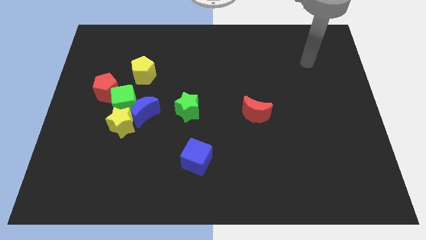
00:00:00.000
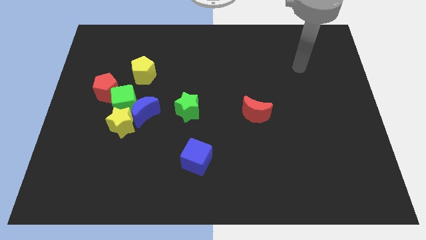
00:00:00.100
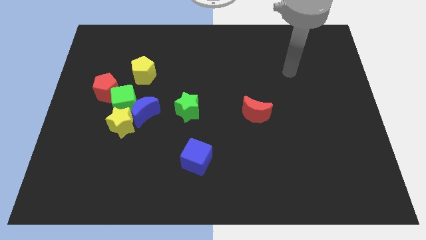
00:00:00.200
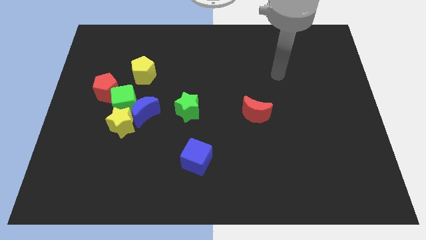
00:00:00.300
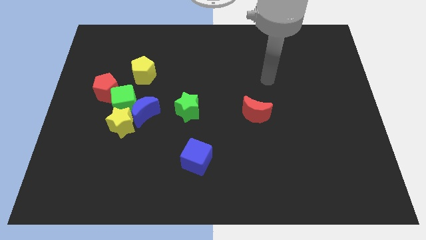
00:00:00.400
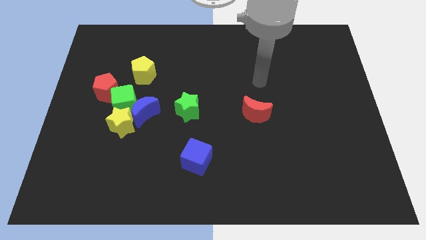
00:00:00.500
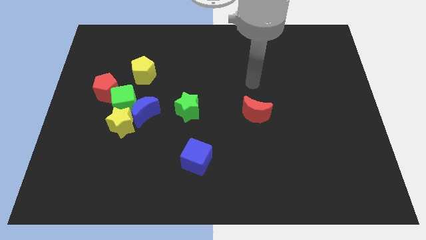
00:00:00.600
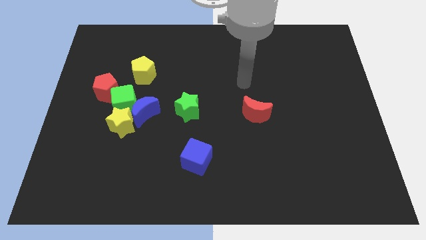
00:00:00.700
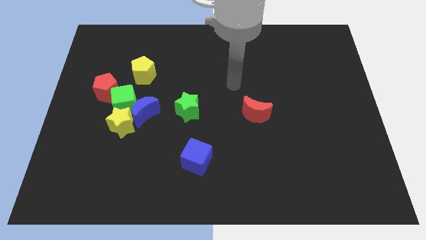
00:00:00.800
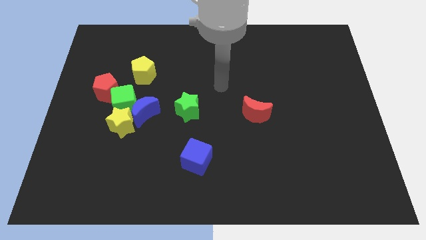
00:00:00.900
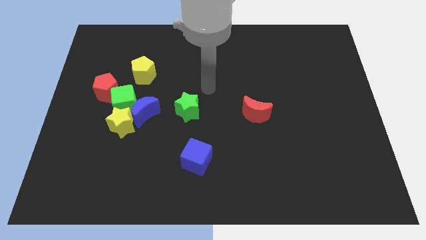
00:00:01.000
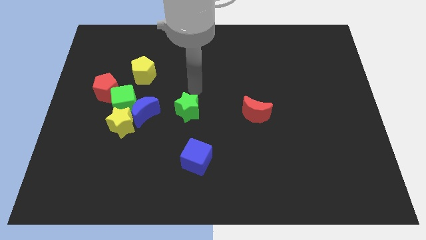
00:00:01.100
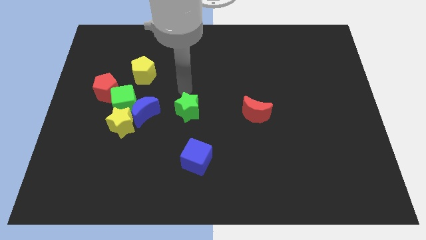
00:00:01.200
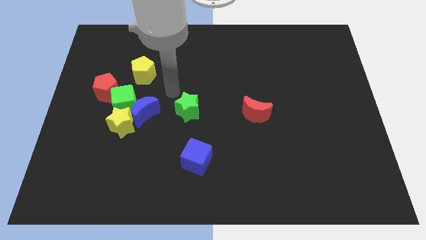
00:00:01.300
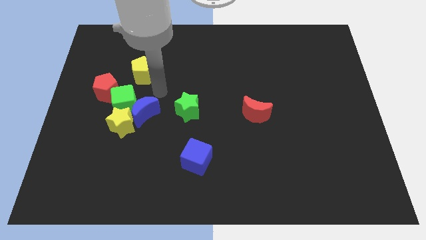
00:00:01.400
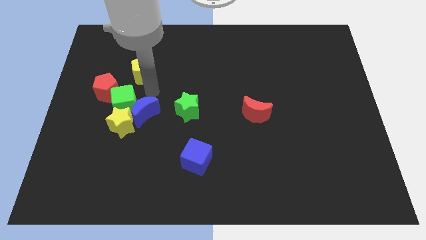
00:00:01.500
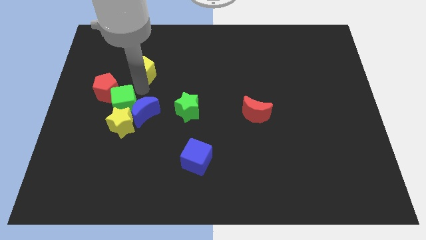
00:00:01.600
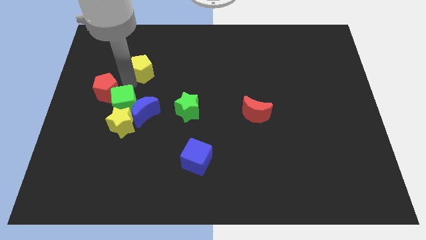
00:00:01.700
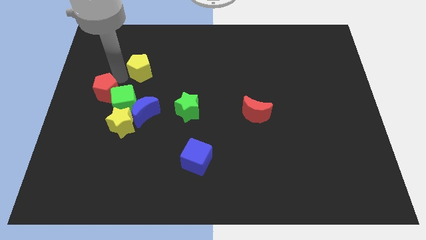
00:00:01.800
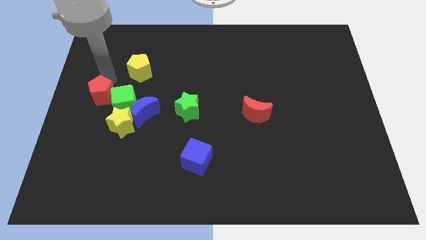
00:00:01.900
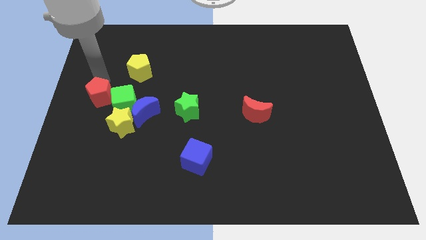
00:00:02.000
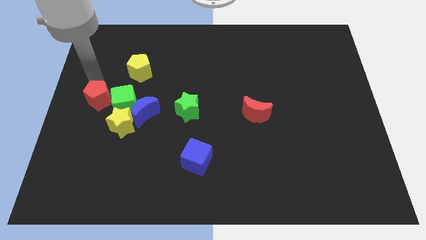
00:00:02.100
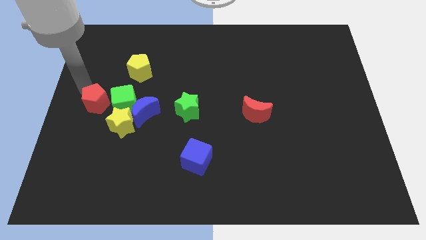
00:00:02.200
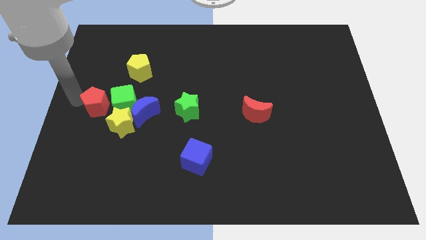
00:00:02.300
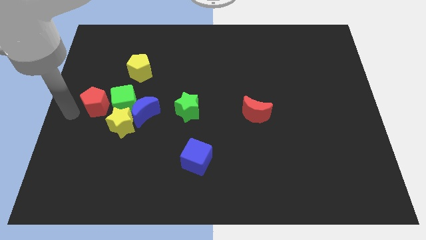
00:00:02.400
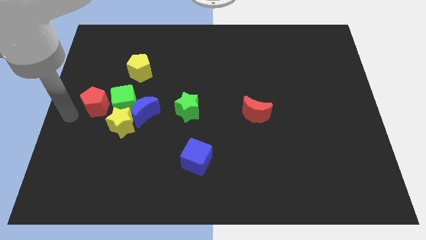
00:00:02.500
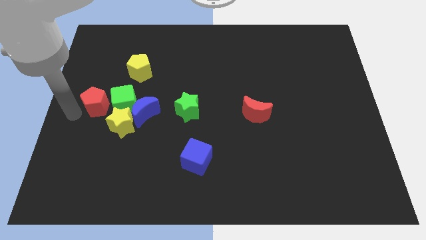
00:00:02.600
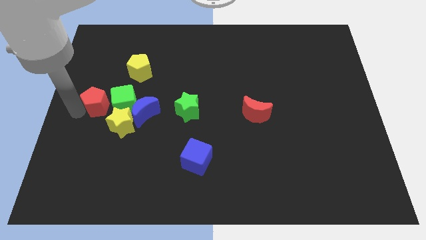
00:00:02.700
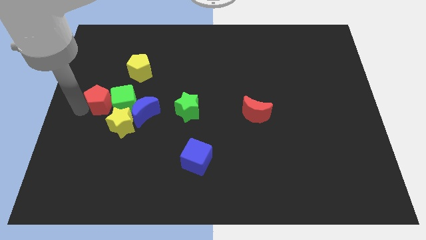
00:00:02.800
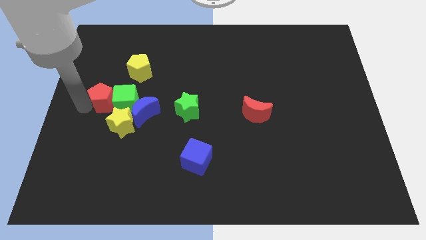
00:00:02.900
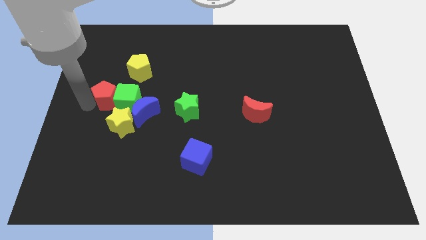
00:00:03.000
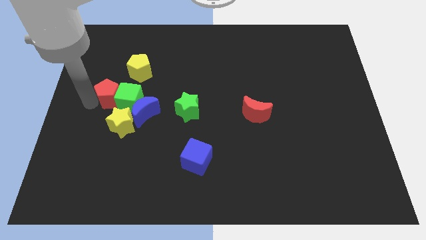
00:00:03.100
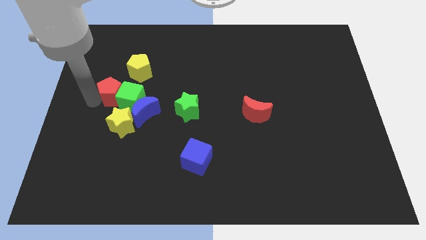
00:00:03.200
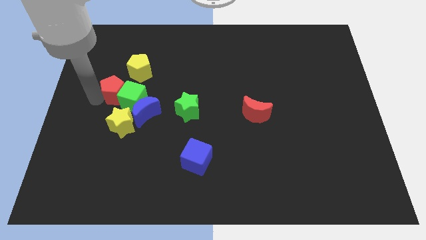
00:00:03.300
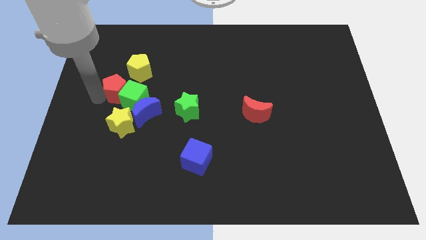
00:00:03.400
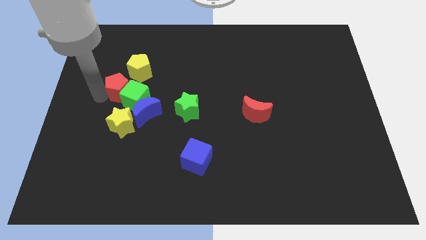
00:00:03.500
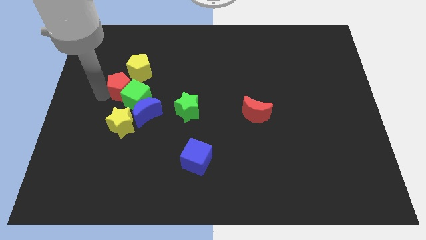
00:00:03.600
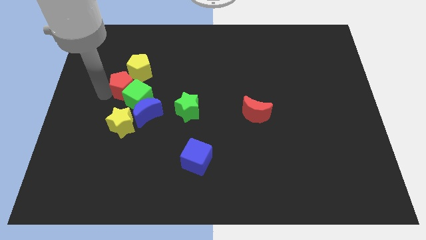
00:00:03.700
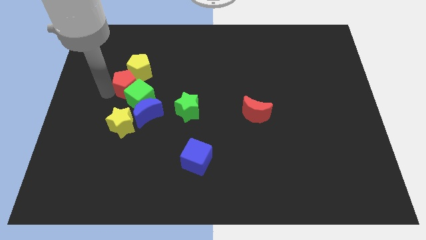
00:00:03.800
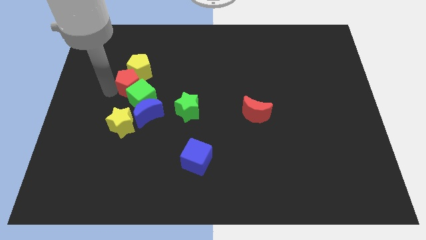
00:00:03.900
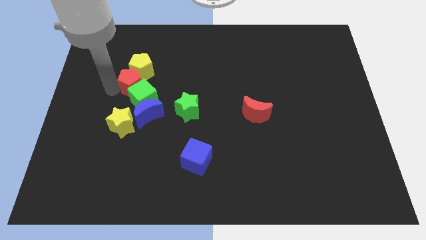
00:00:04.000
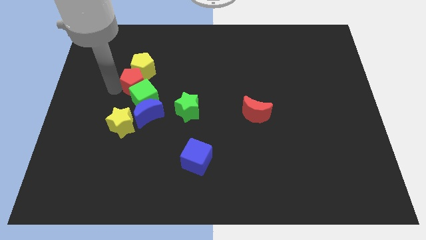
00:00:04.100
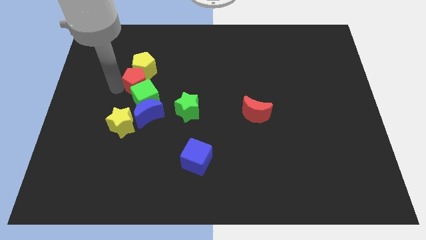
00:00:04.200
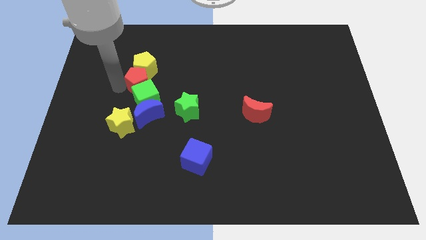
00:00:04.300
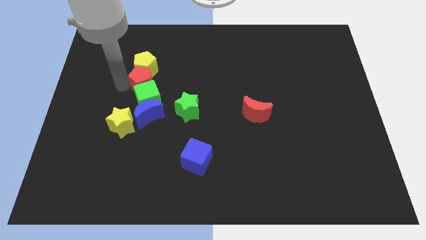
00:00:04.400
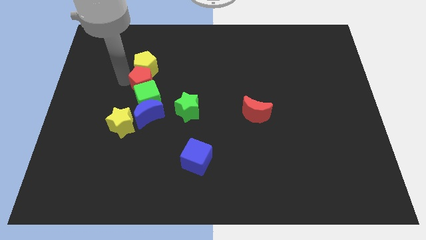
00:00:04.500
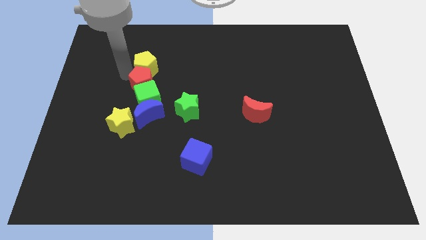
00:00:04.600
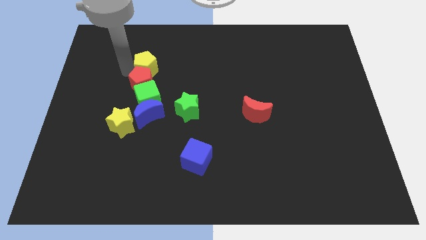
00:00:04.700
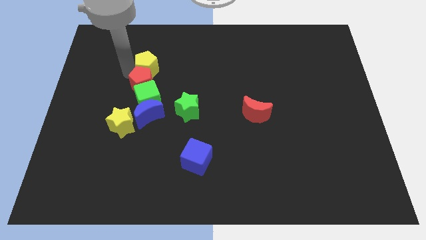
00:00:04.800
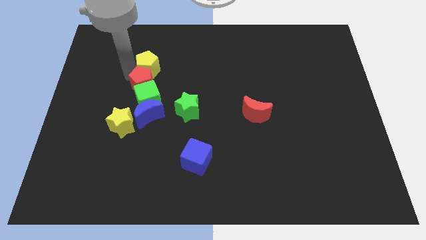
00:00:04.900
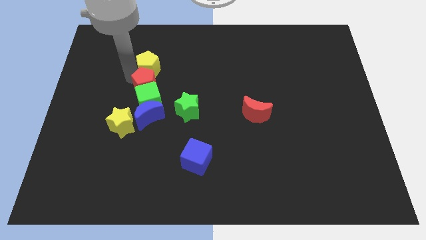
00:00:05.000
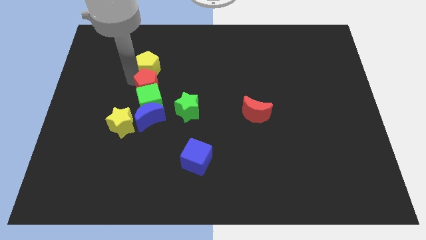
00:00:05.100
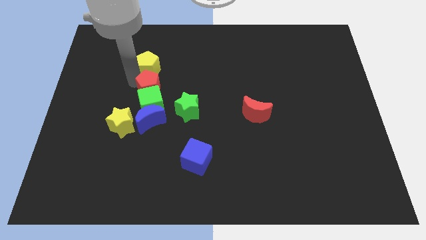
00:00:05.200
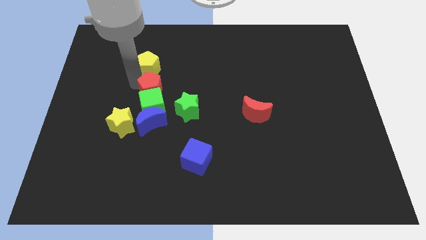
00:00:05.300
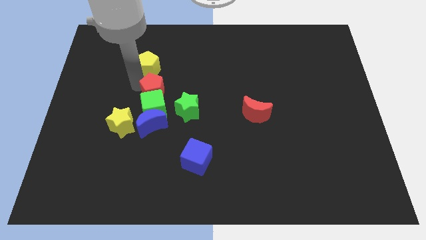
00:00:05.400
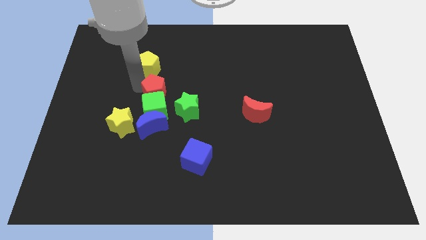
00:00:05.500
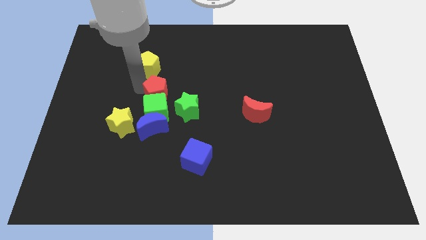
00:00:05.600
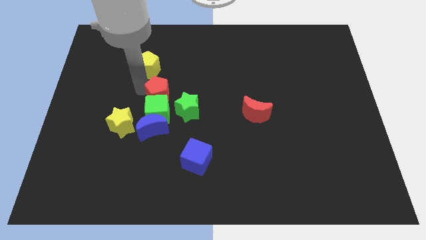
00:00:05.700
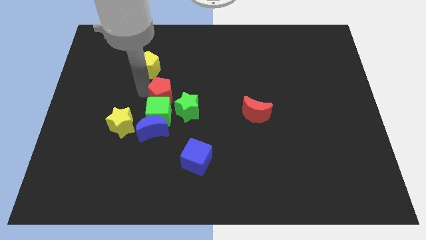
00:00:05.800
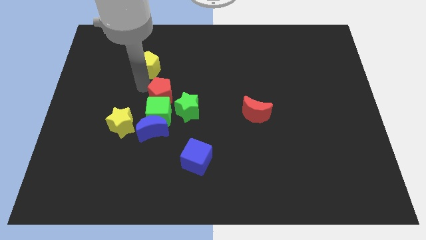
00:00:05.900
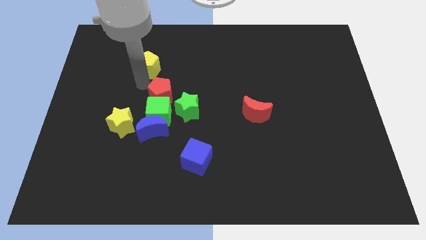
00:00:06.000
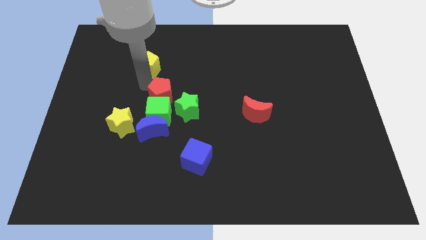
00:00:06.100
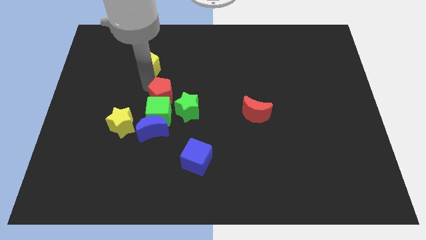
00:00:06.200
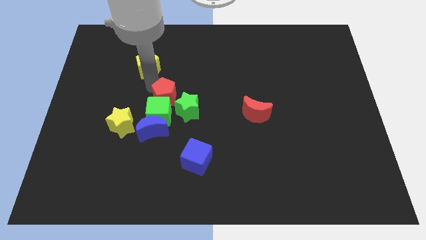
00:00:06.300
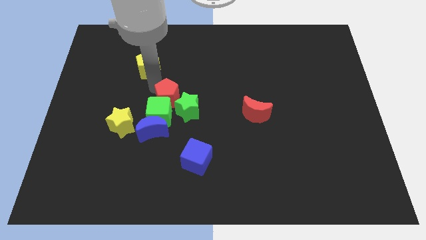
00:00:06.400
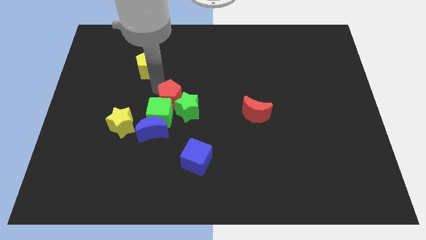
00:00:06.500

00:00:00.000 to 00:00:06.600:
slide the red pentagon next to the green star
